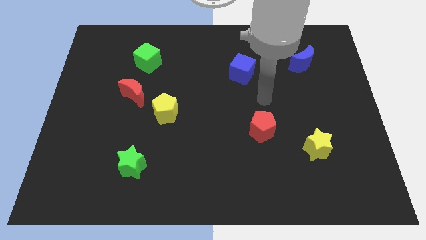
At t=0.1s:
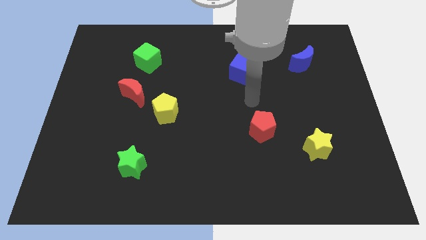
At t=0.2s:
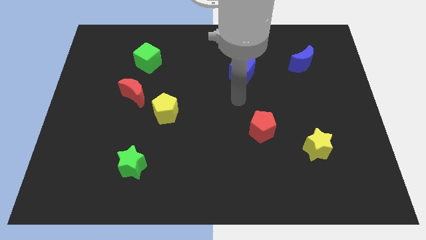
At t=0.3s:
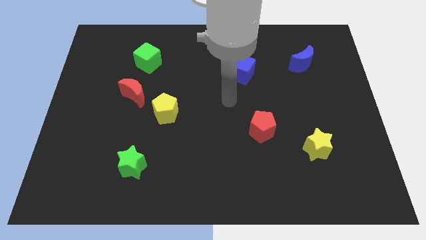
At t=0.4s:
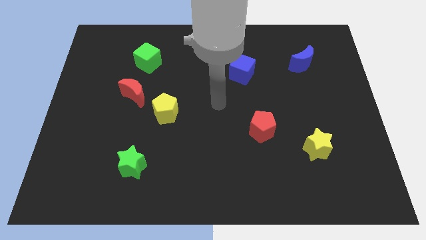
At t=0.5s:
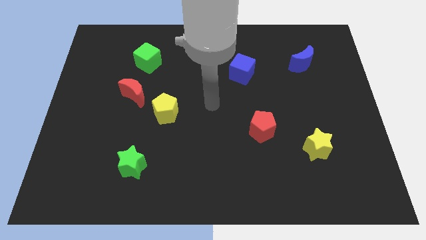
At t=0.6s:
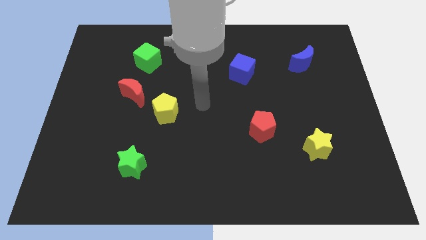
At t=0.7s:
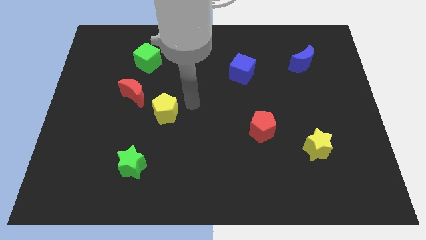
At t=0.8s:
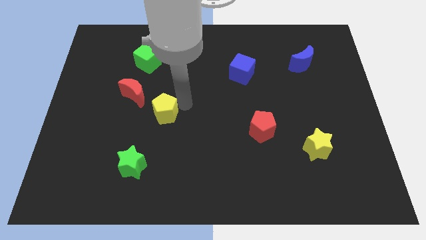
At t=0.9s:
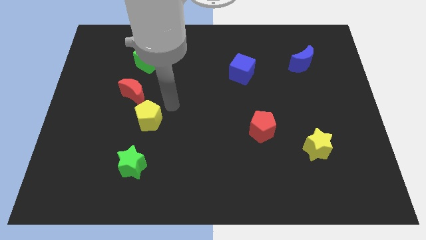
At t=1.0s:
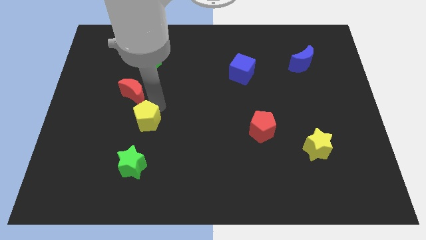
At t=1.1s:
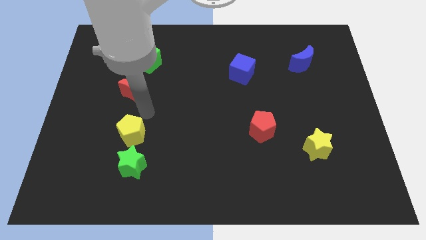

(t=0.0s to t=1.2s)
move the red moon away from the yellow pentagon

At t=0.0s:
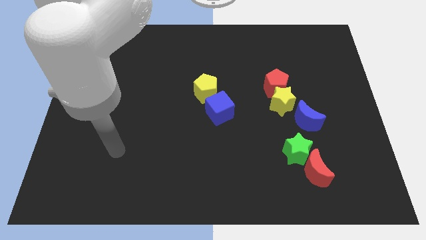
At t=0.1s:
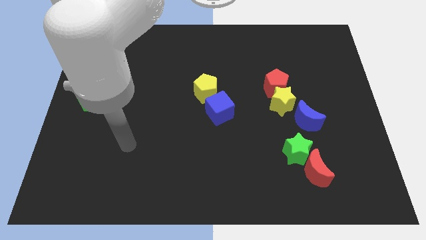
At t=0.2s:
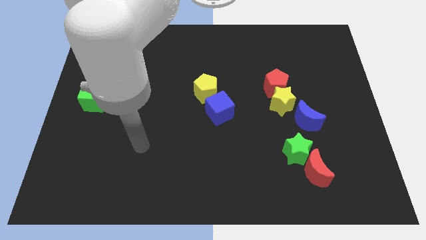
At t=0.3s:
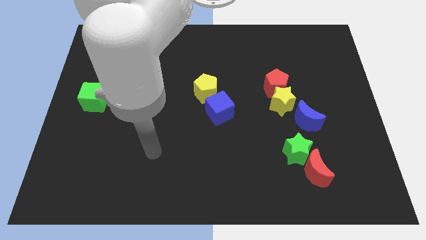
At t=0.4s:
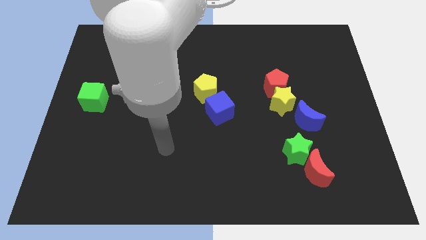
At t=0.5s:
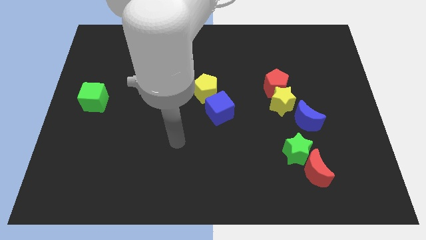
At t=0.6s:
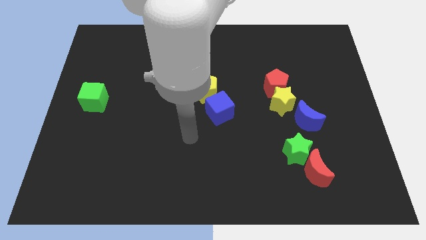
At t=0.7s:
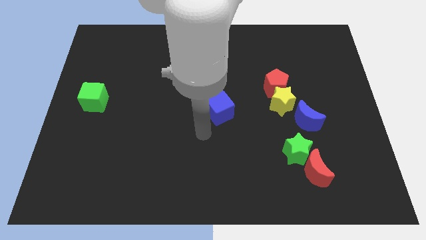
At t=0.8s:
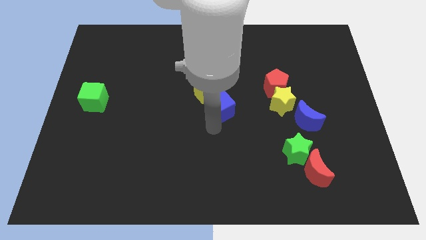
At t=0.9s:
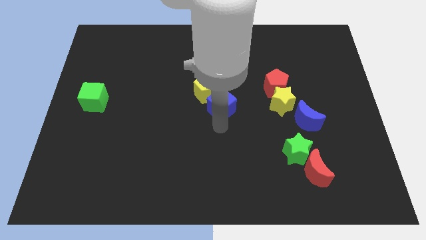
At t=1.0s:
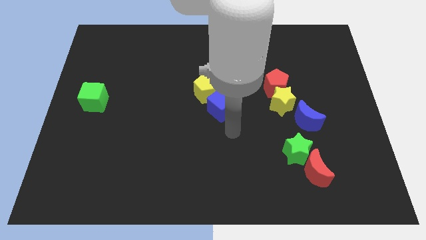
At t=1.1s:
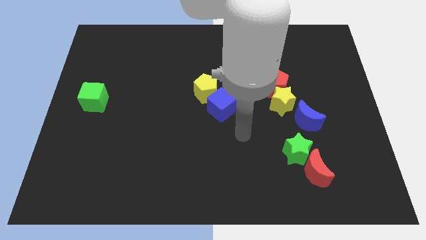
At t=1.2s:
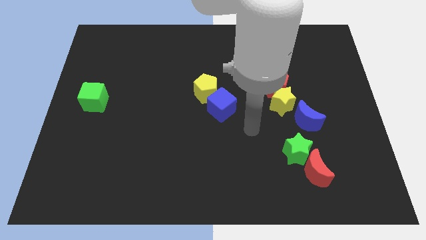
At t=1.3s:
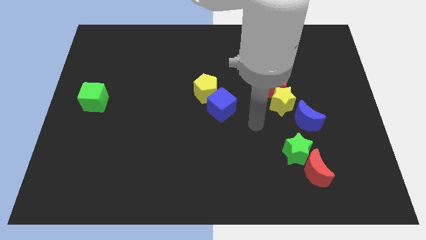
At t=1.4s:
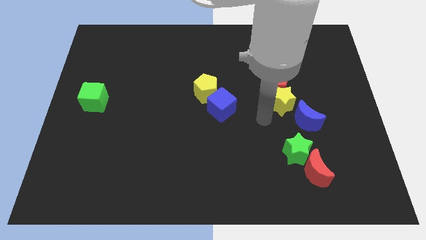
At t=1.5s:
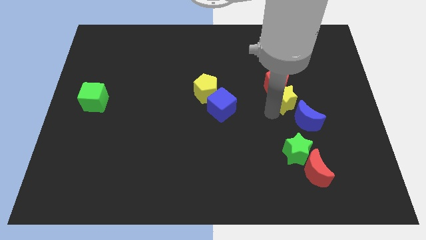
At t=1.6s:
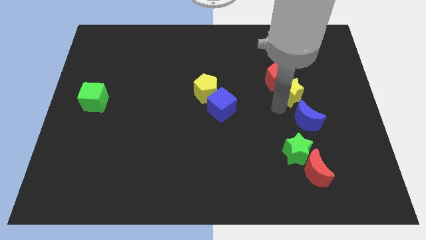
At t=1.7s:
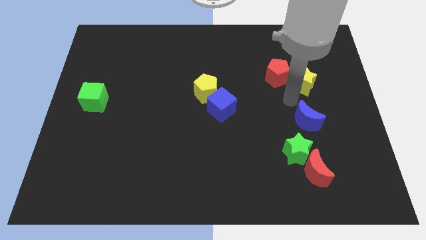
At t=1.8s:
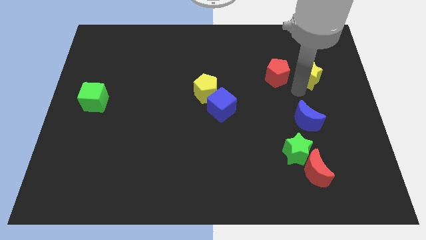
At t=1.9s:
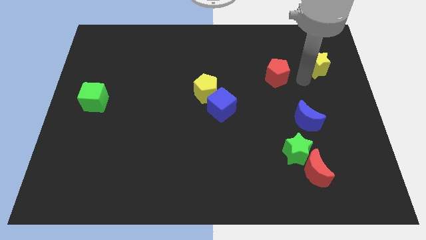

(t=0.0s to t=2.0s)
pull the red pentagon apart from the yellow star

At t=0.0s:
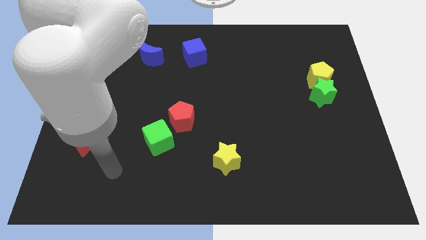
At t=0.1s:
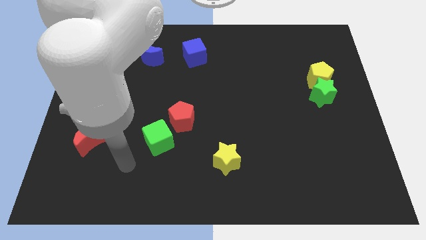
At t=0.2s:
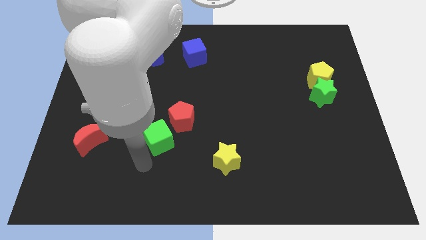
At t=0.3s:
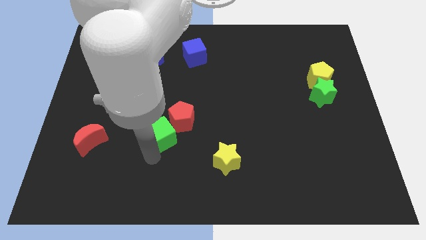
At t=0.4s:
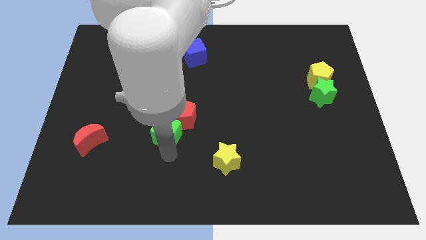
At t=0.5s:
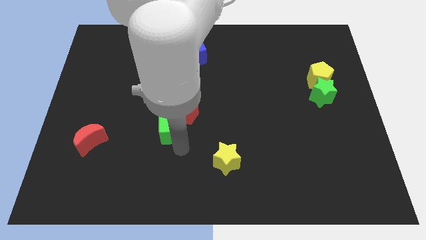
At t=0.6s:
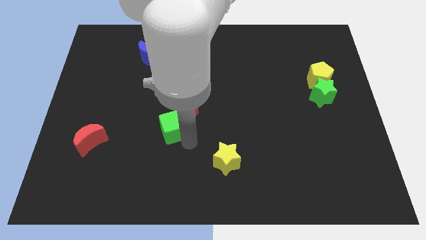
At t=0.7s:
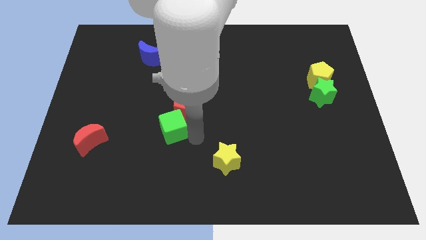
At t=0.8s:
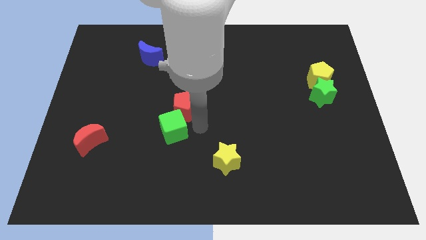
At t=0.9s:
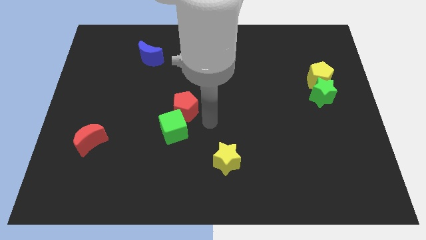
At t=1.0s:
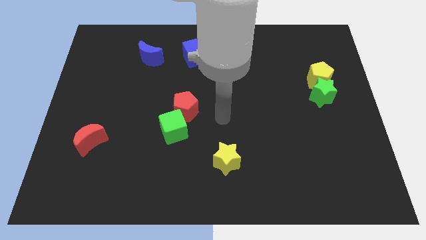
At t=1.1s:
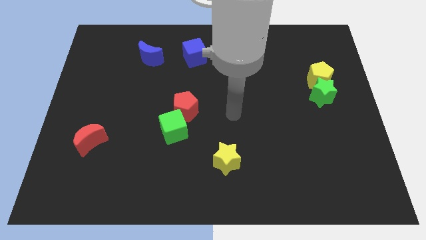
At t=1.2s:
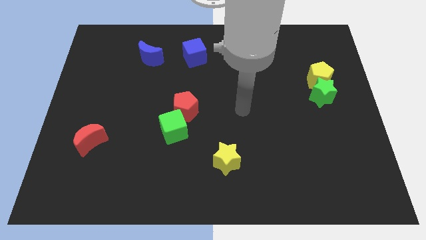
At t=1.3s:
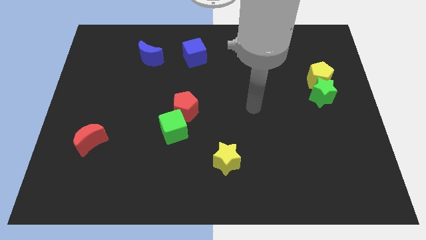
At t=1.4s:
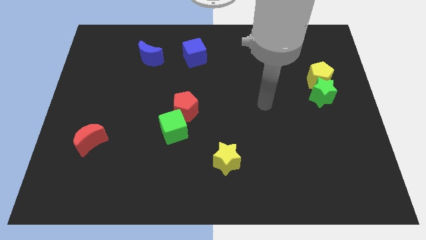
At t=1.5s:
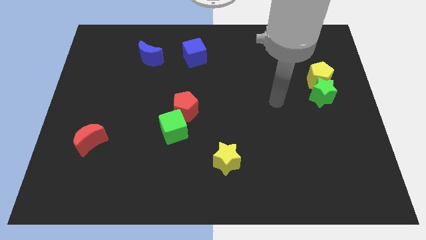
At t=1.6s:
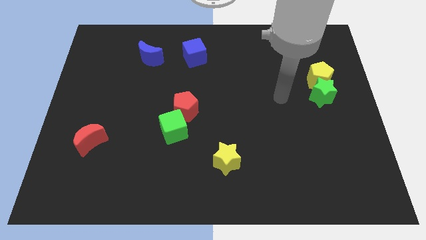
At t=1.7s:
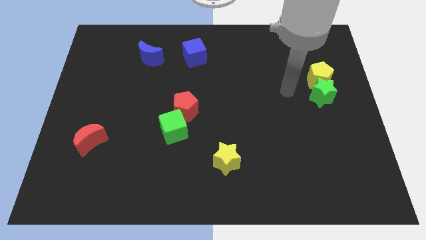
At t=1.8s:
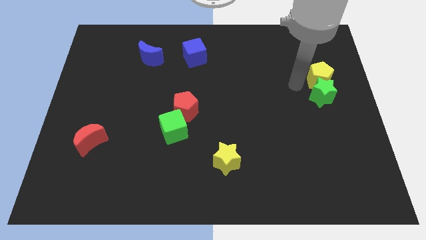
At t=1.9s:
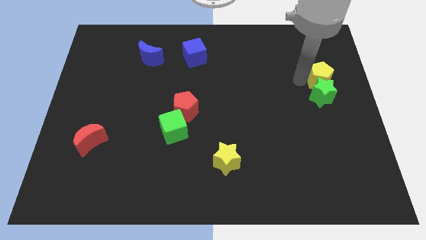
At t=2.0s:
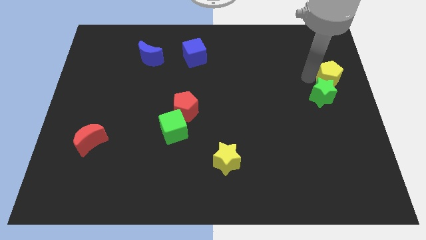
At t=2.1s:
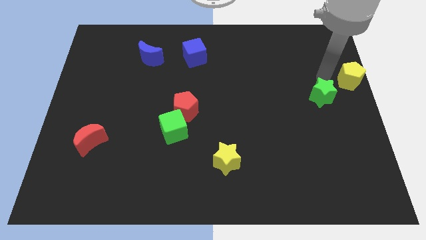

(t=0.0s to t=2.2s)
separate the green star from the yellow pentagon

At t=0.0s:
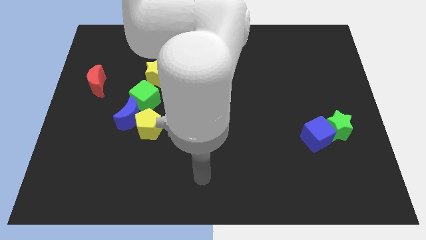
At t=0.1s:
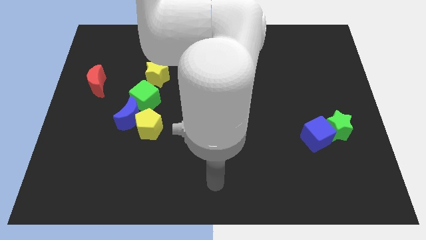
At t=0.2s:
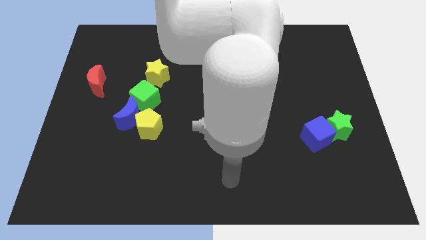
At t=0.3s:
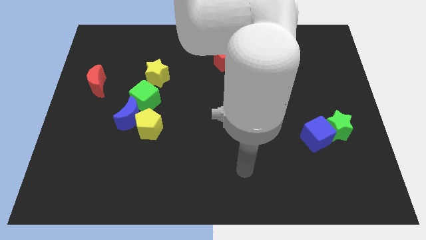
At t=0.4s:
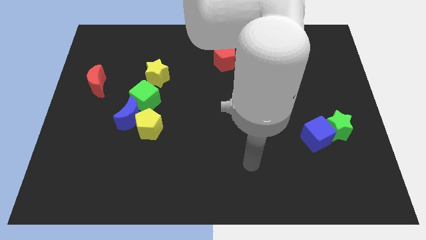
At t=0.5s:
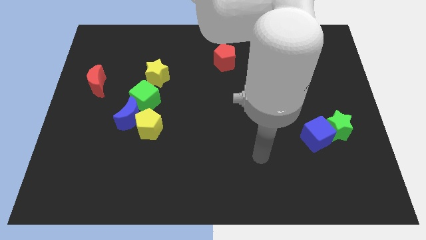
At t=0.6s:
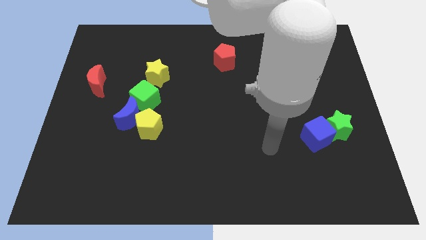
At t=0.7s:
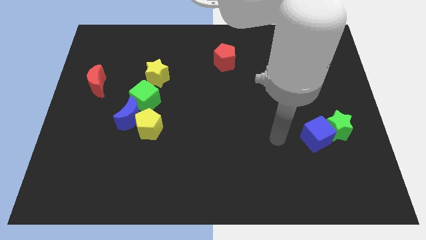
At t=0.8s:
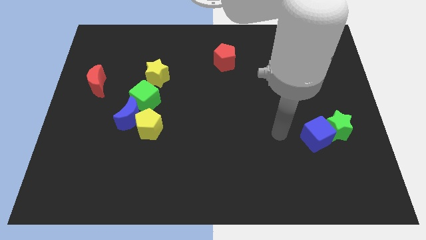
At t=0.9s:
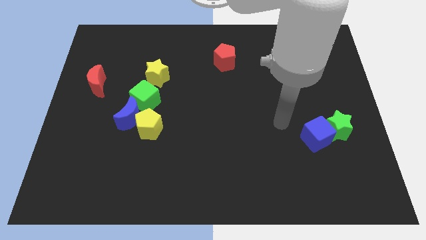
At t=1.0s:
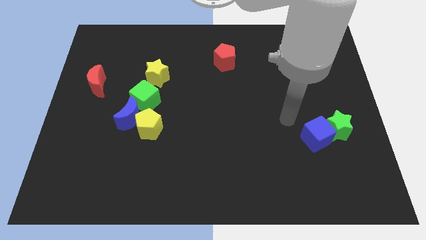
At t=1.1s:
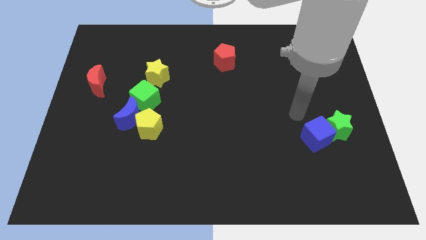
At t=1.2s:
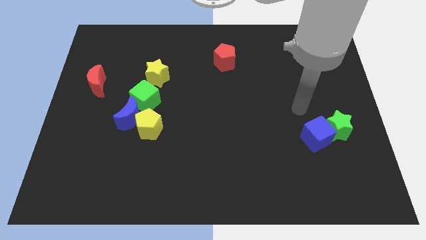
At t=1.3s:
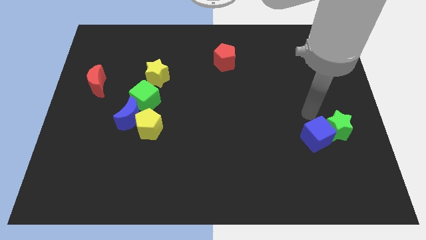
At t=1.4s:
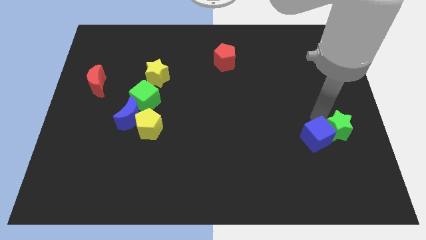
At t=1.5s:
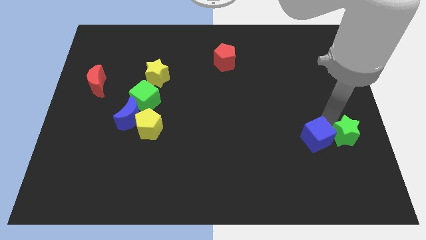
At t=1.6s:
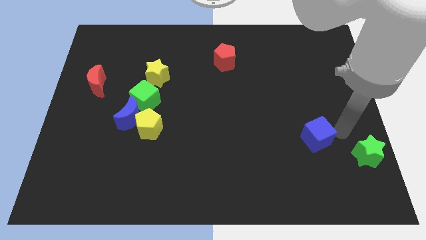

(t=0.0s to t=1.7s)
separate the blue cube from the green star

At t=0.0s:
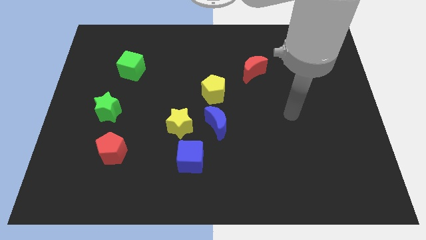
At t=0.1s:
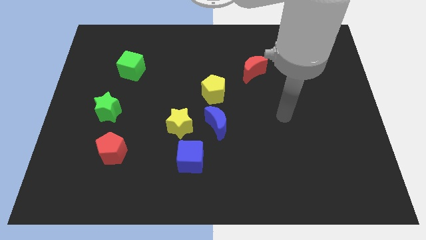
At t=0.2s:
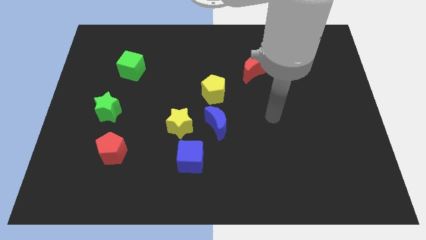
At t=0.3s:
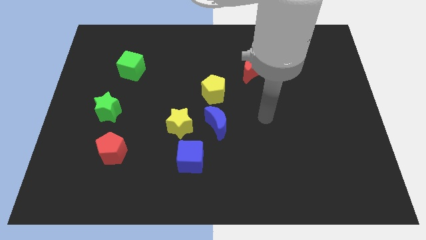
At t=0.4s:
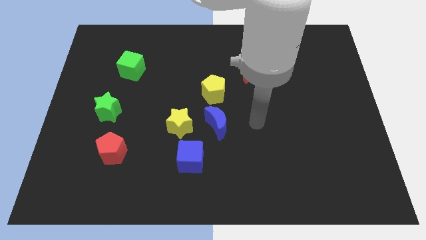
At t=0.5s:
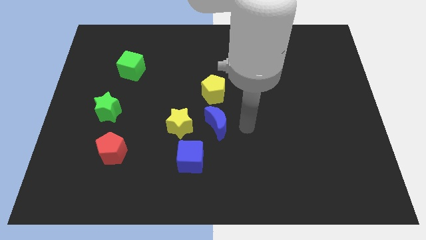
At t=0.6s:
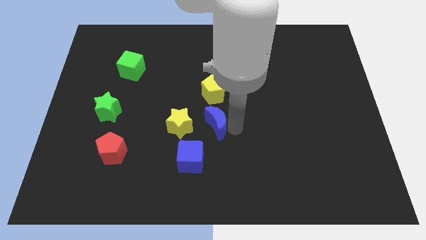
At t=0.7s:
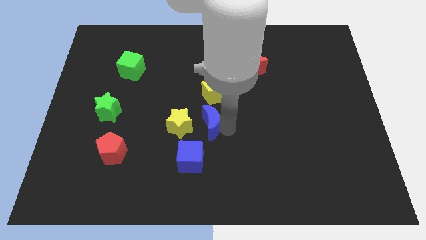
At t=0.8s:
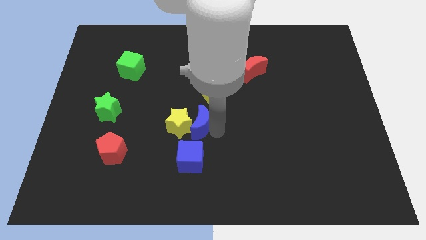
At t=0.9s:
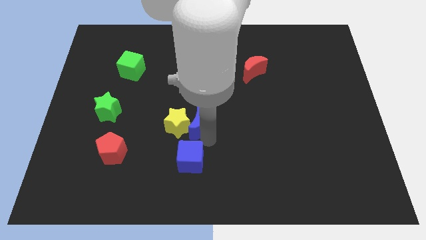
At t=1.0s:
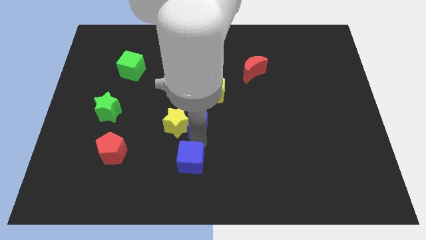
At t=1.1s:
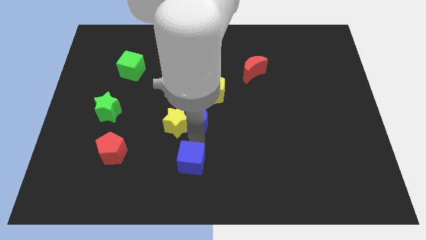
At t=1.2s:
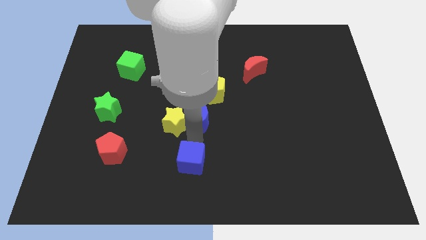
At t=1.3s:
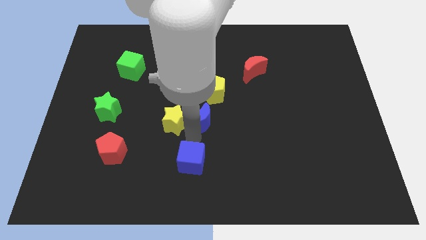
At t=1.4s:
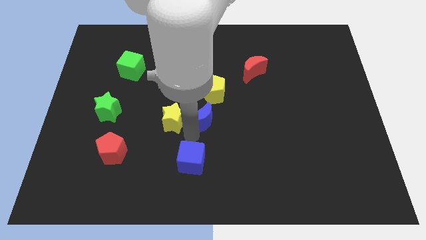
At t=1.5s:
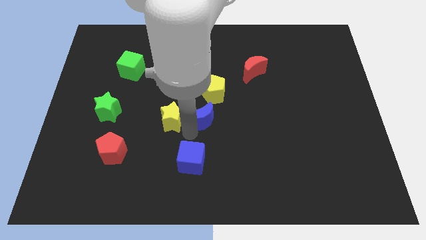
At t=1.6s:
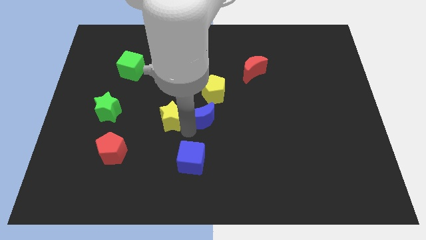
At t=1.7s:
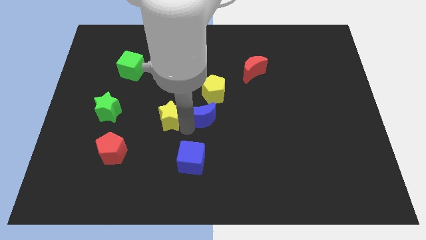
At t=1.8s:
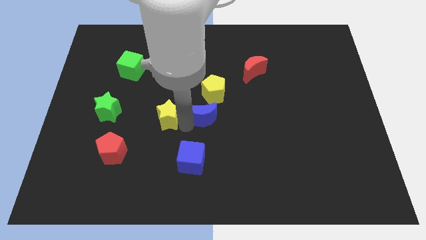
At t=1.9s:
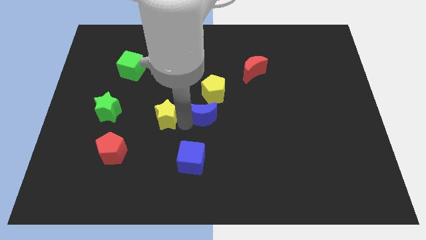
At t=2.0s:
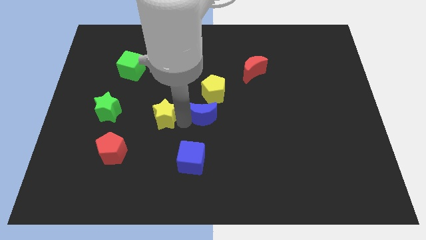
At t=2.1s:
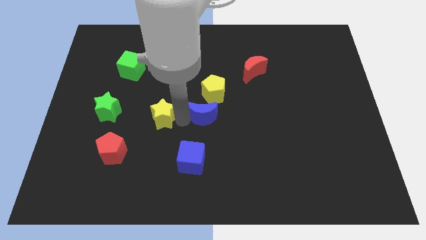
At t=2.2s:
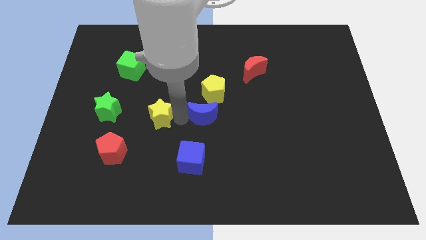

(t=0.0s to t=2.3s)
pull the yellow star apart from the blue moon and blue cube

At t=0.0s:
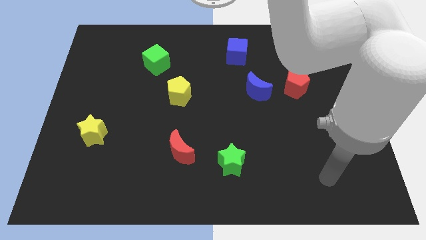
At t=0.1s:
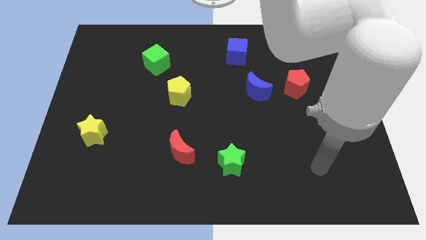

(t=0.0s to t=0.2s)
move the red pentagon away from the blue moon
